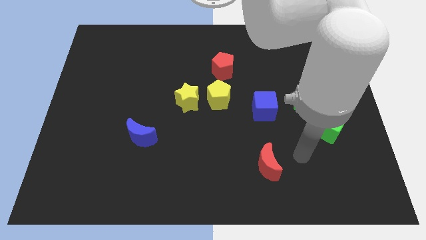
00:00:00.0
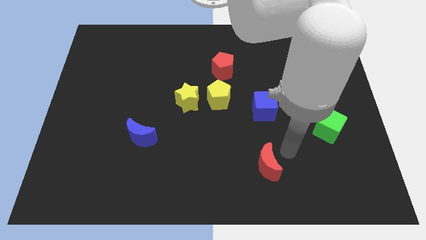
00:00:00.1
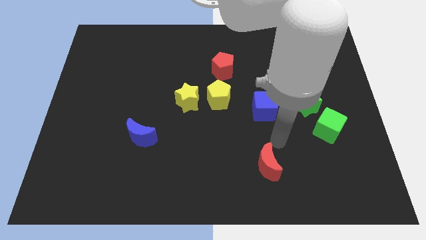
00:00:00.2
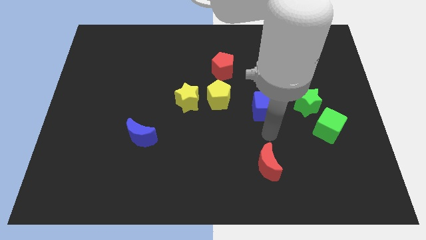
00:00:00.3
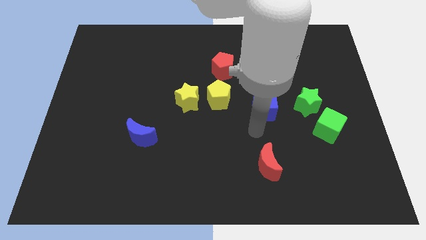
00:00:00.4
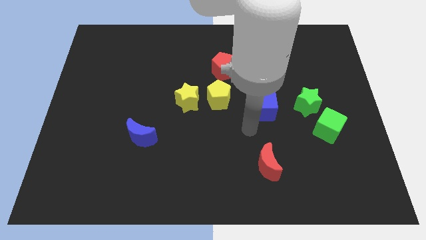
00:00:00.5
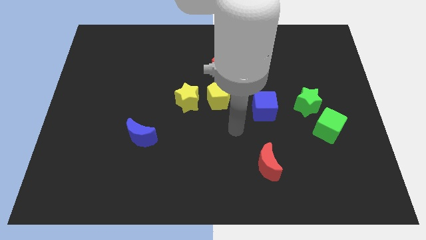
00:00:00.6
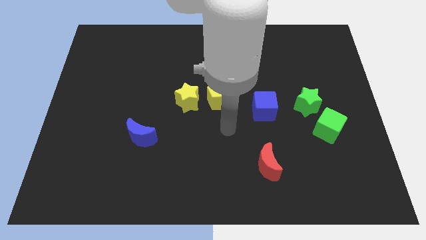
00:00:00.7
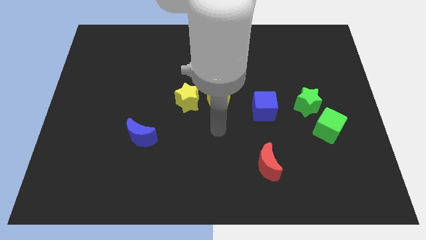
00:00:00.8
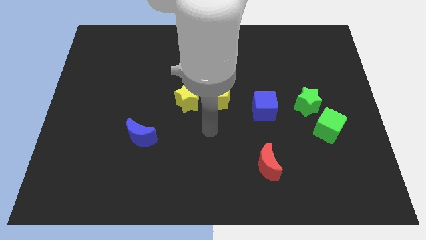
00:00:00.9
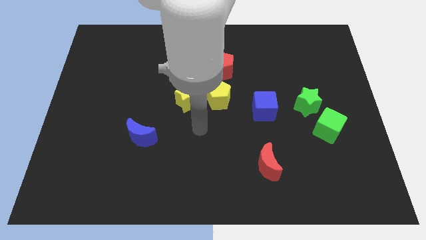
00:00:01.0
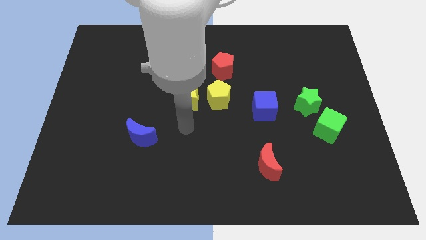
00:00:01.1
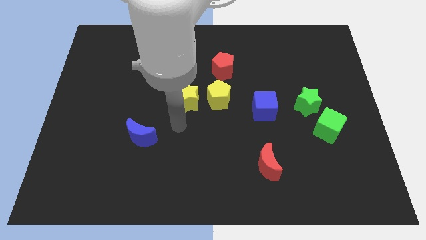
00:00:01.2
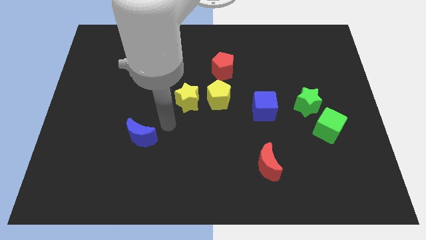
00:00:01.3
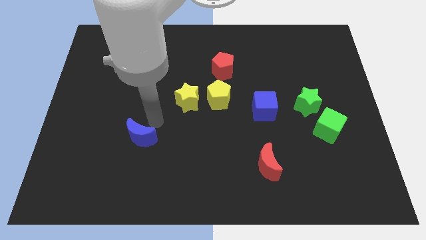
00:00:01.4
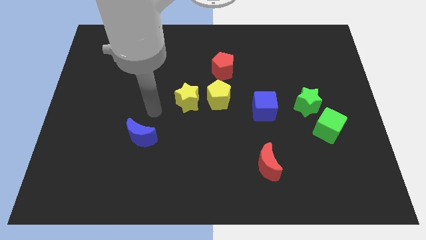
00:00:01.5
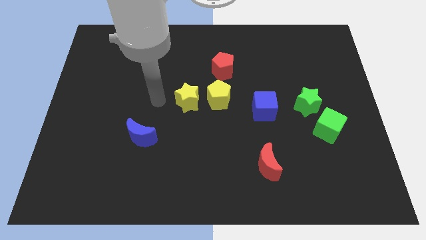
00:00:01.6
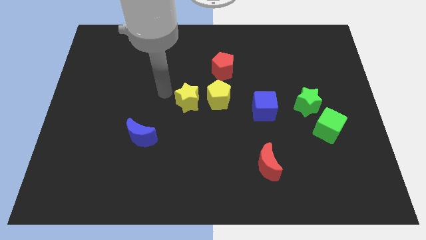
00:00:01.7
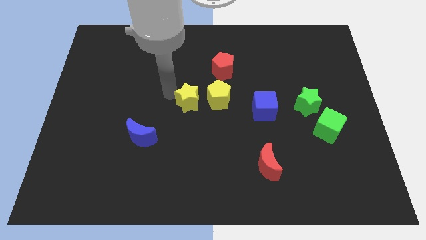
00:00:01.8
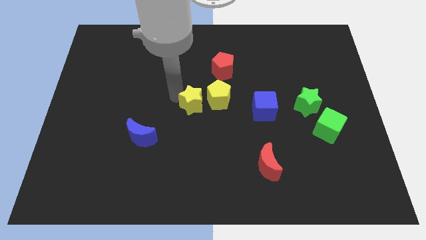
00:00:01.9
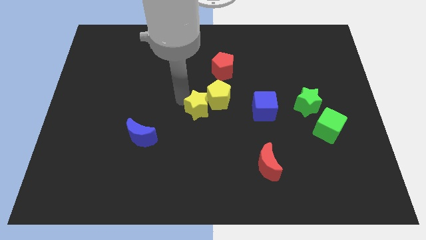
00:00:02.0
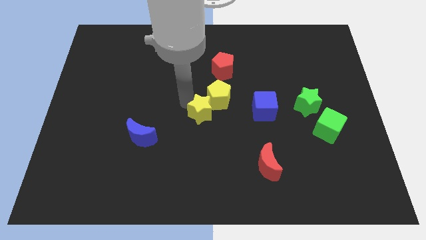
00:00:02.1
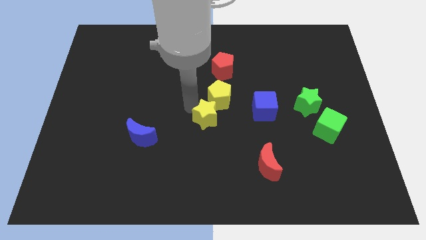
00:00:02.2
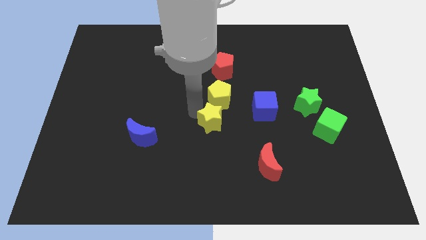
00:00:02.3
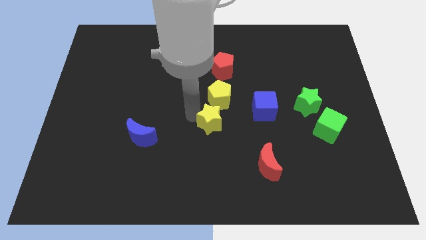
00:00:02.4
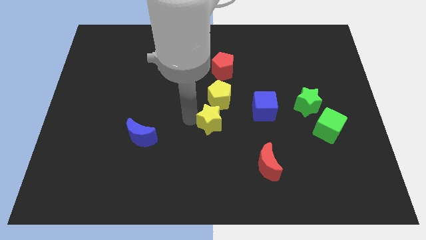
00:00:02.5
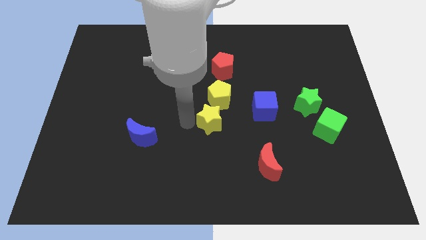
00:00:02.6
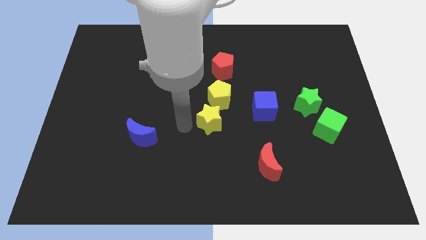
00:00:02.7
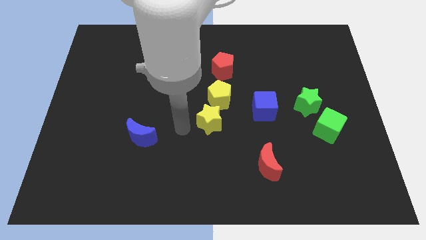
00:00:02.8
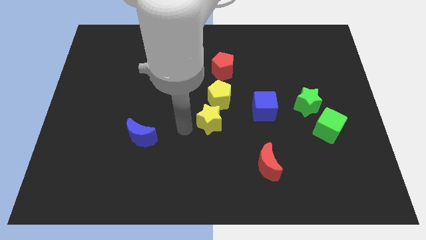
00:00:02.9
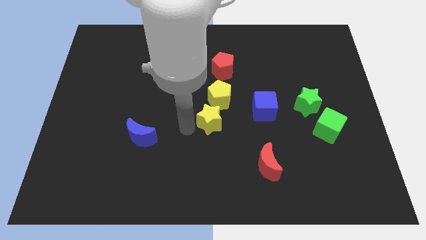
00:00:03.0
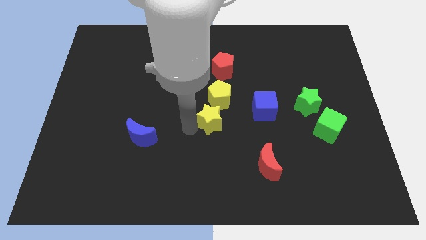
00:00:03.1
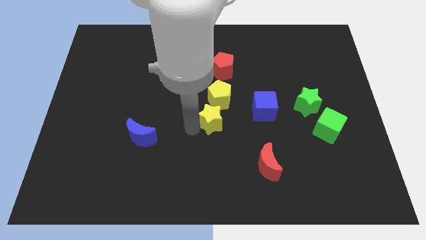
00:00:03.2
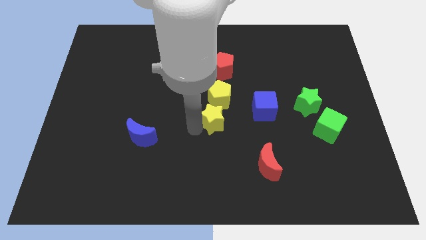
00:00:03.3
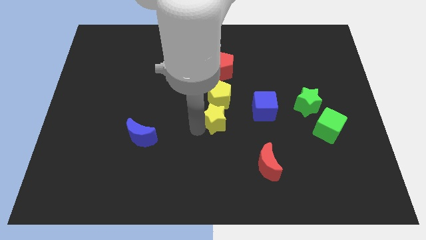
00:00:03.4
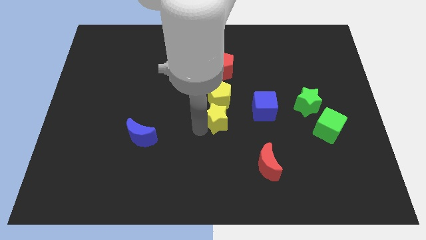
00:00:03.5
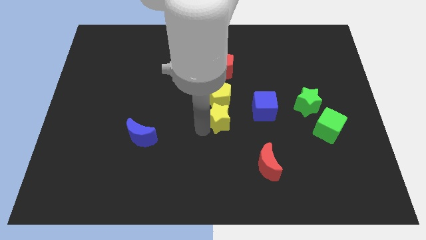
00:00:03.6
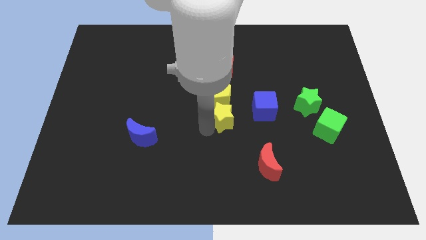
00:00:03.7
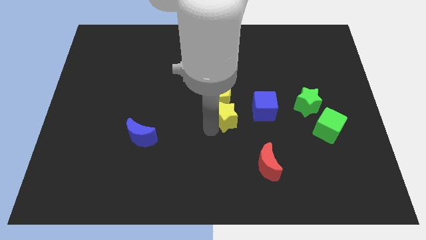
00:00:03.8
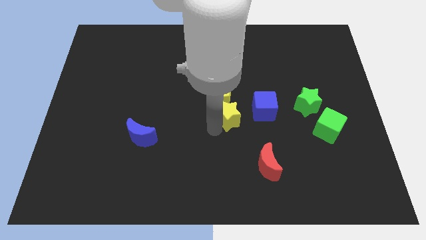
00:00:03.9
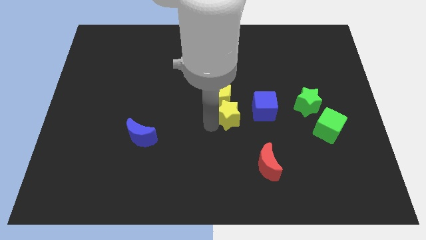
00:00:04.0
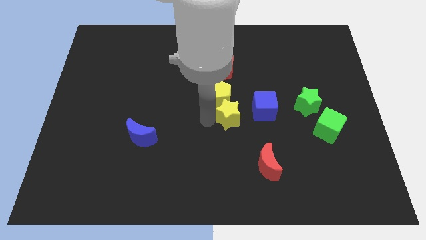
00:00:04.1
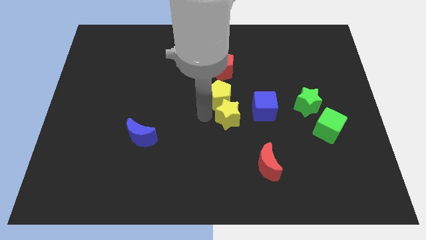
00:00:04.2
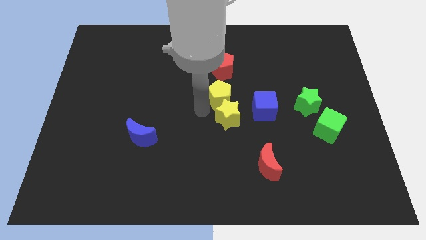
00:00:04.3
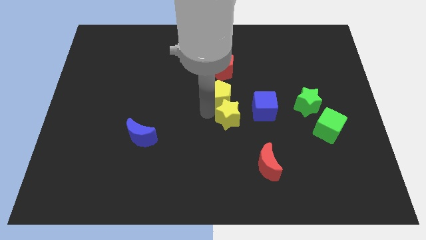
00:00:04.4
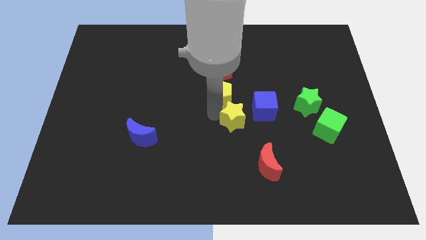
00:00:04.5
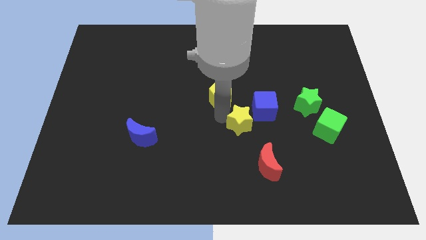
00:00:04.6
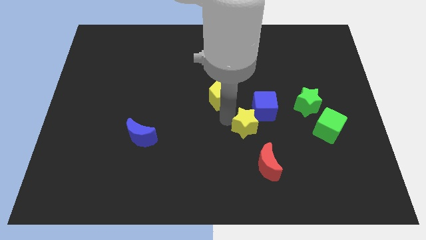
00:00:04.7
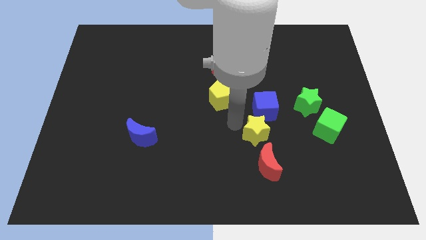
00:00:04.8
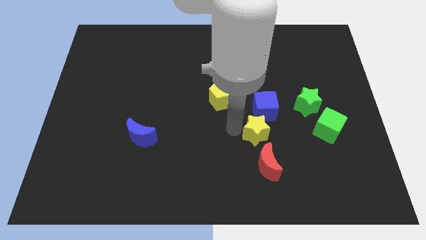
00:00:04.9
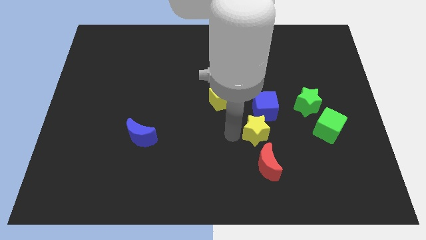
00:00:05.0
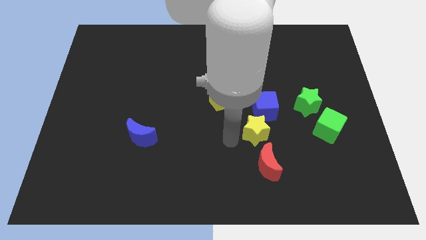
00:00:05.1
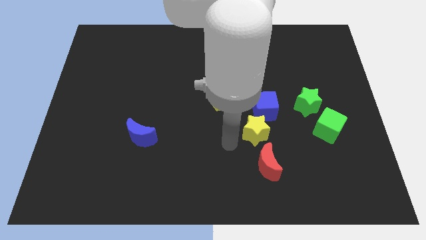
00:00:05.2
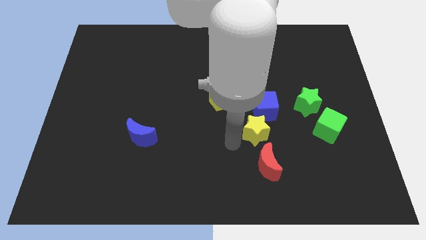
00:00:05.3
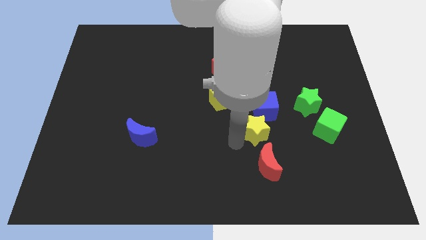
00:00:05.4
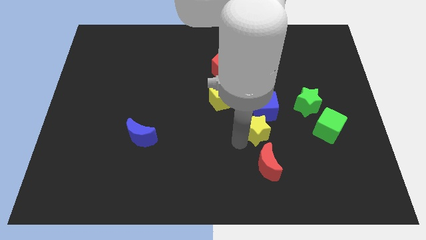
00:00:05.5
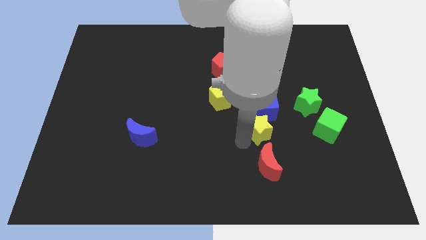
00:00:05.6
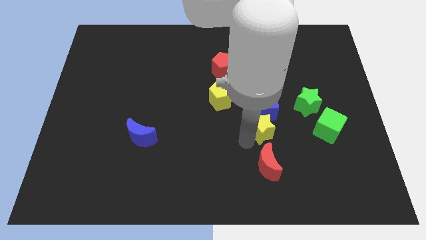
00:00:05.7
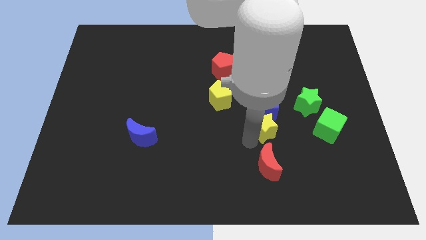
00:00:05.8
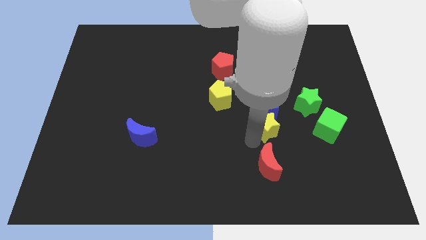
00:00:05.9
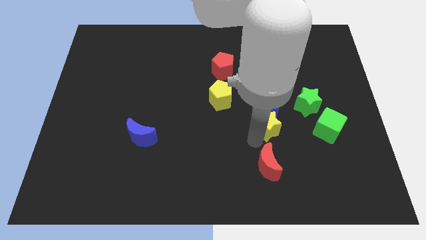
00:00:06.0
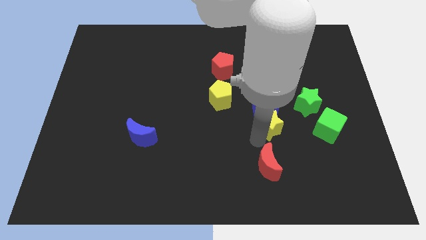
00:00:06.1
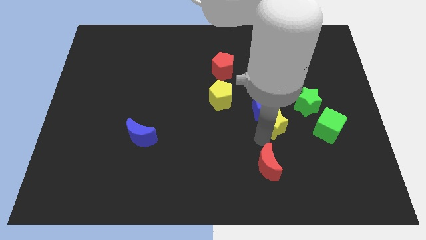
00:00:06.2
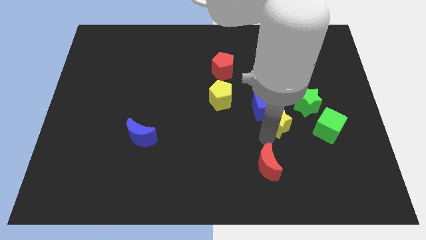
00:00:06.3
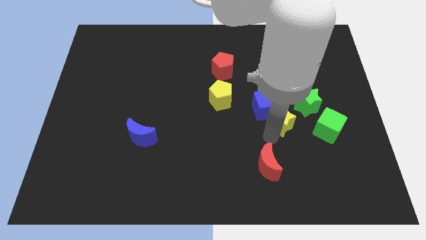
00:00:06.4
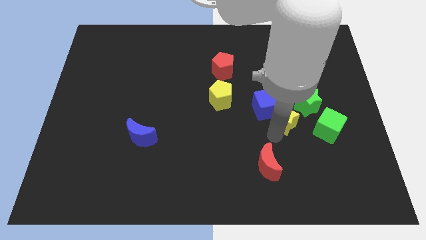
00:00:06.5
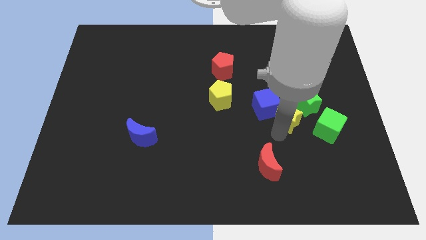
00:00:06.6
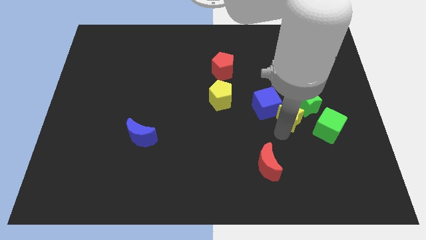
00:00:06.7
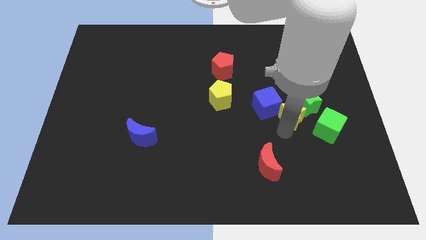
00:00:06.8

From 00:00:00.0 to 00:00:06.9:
push the yellow star to the green star
